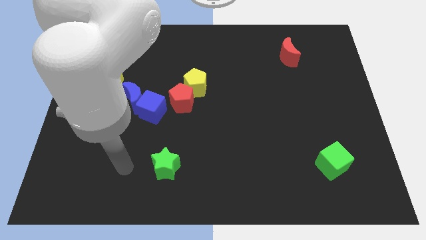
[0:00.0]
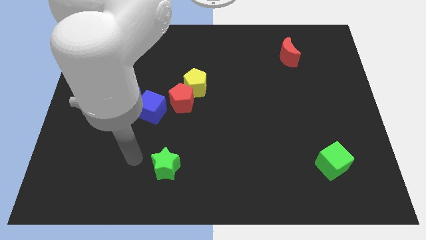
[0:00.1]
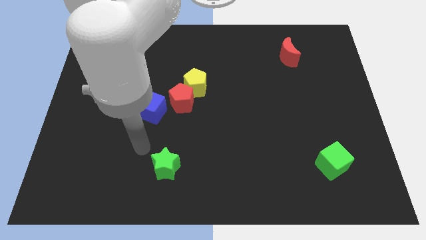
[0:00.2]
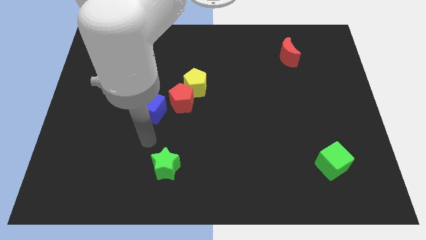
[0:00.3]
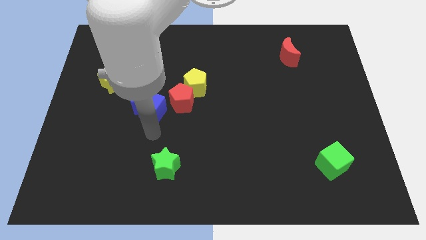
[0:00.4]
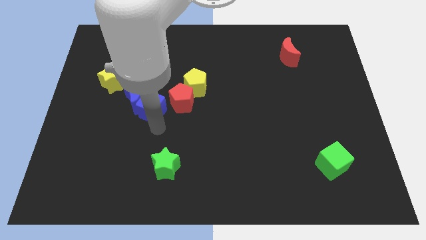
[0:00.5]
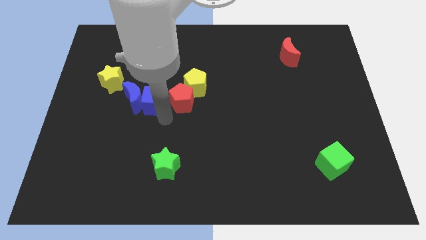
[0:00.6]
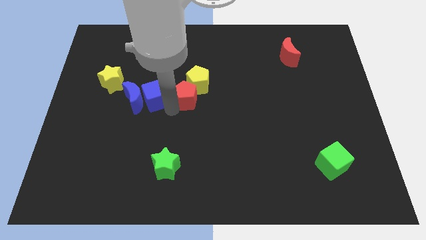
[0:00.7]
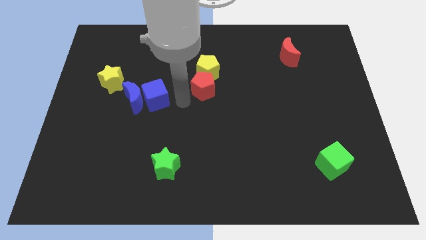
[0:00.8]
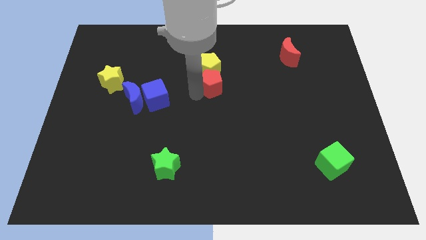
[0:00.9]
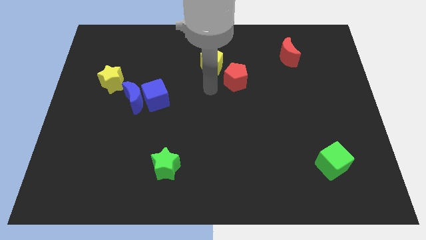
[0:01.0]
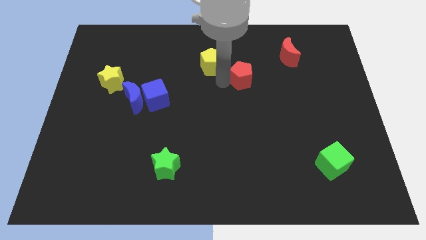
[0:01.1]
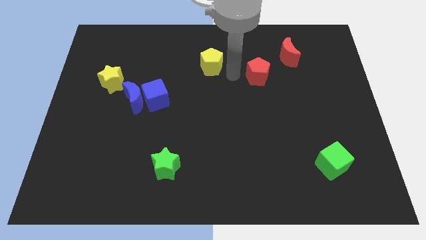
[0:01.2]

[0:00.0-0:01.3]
pull the yellow pentagon apart from the red pentagon

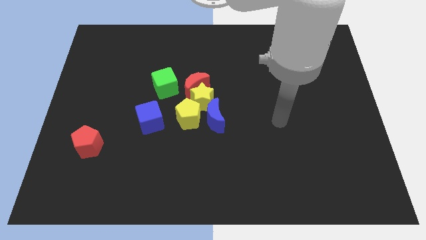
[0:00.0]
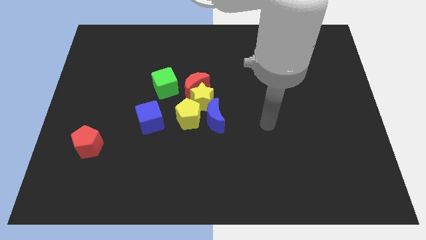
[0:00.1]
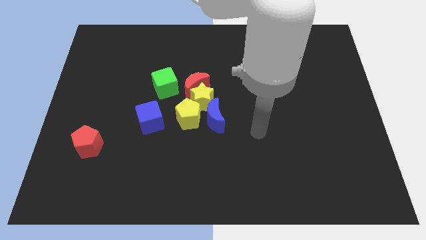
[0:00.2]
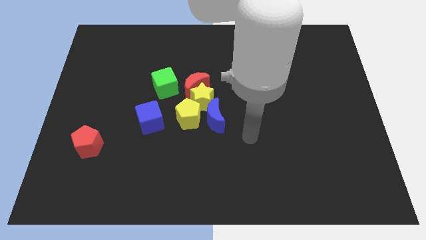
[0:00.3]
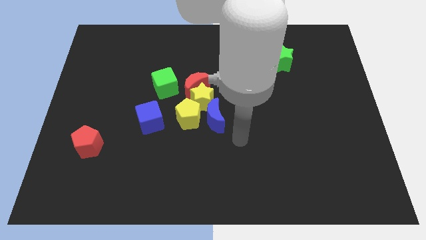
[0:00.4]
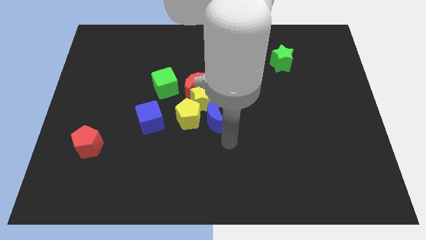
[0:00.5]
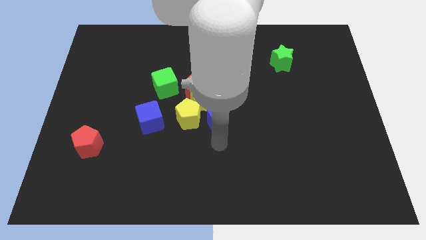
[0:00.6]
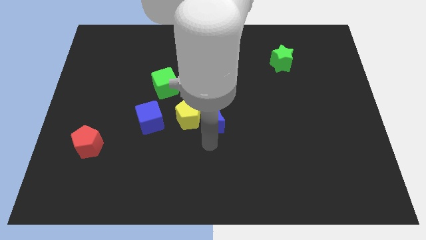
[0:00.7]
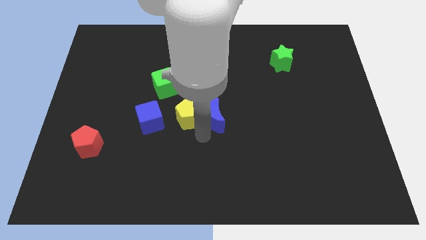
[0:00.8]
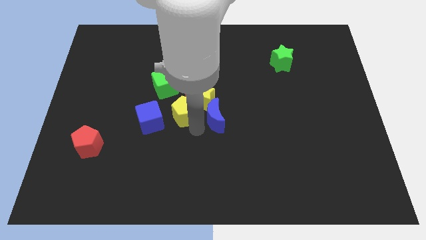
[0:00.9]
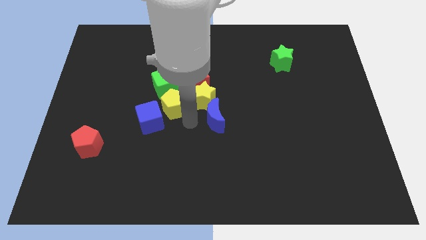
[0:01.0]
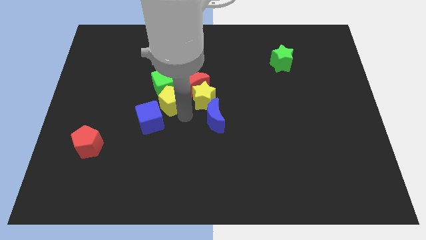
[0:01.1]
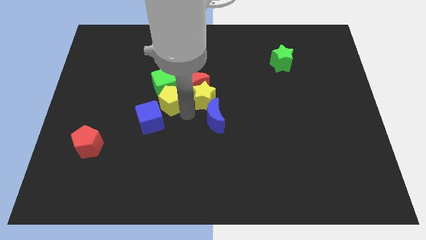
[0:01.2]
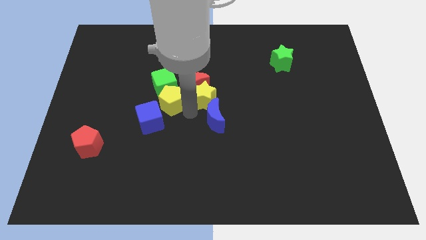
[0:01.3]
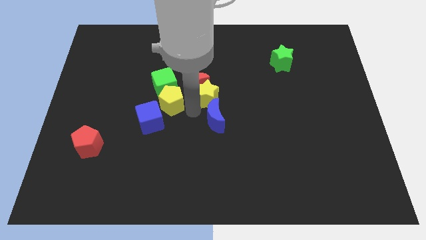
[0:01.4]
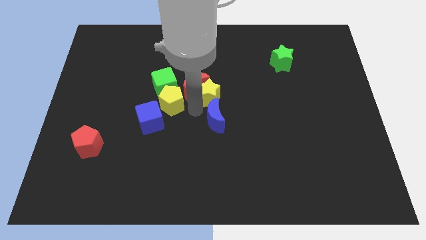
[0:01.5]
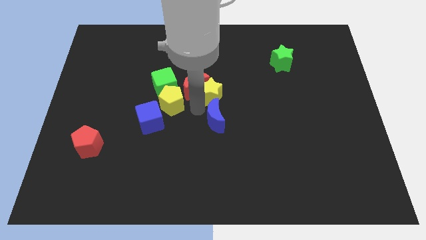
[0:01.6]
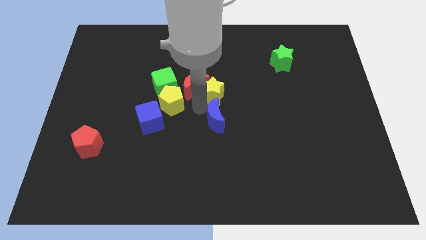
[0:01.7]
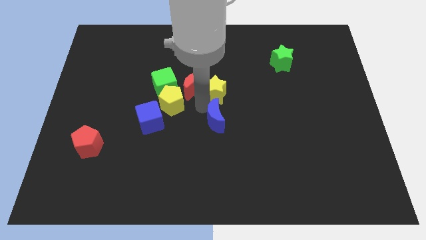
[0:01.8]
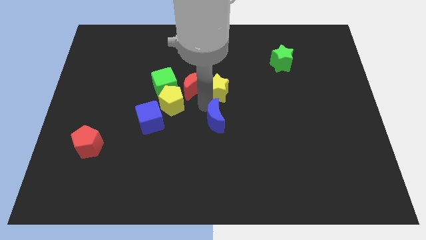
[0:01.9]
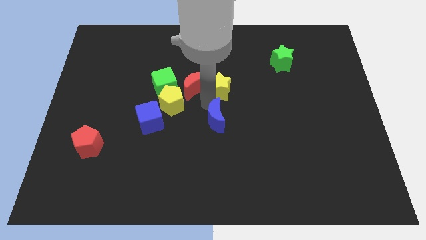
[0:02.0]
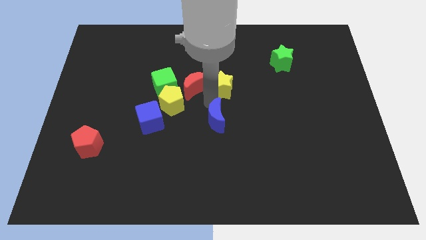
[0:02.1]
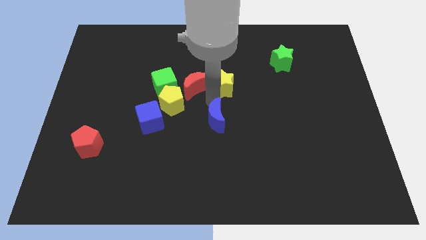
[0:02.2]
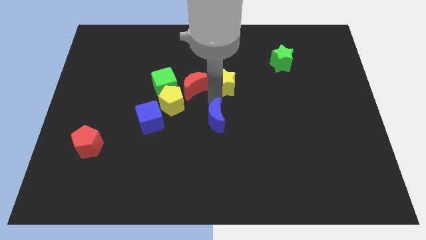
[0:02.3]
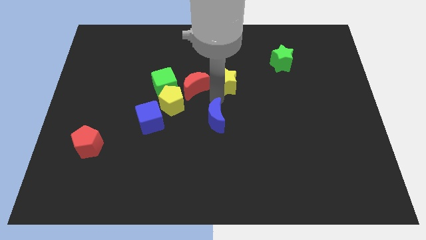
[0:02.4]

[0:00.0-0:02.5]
separate the yellow star from the red moon, blue moon, and yellow pentagon

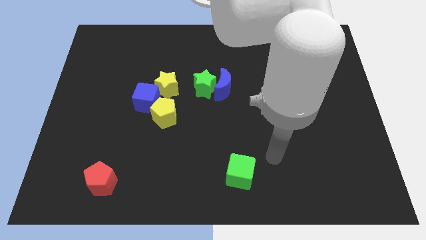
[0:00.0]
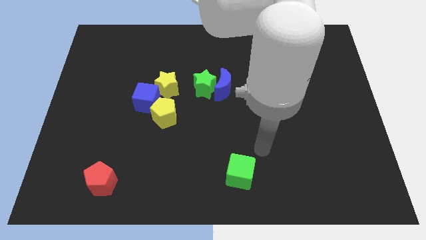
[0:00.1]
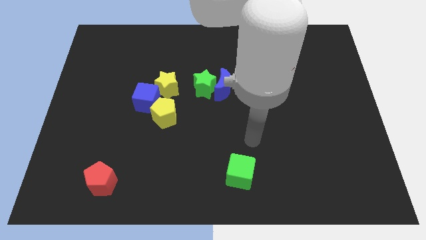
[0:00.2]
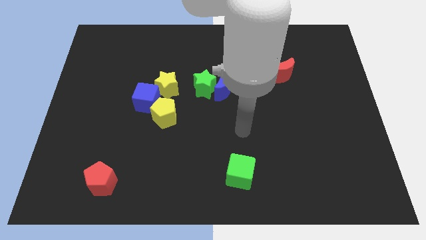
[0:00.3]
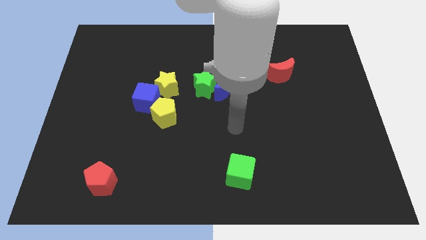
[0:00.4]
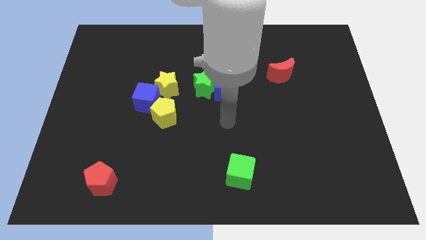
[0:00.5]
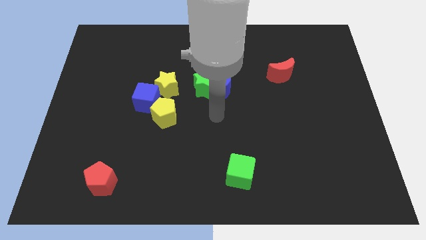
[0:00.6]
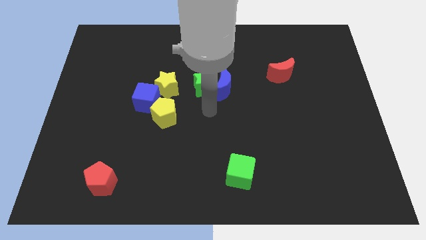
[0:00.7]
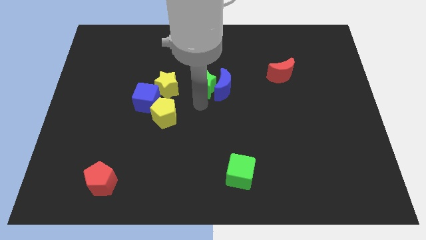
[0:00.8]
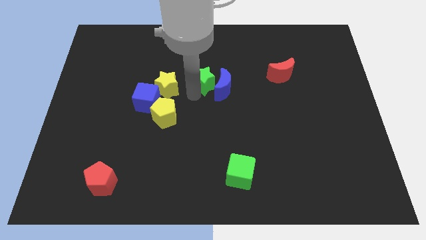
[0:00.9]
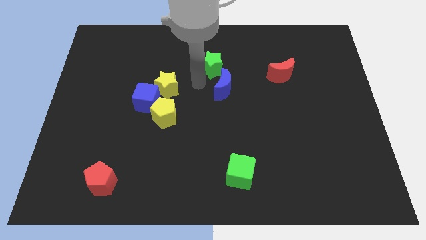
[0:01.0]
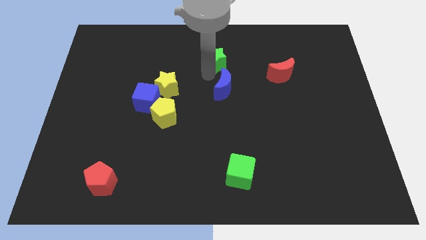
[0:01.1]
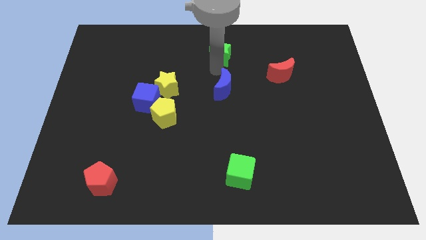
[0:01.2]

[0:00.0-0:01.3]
separate the blue moon from the green star

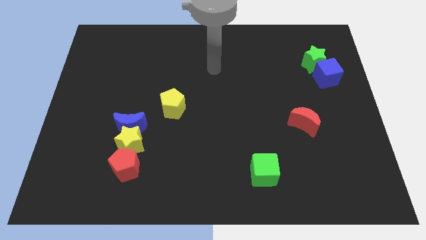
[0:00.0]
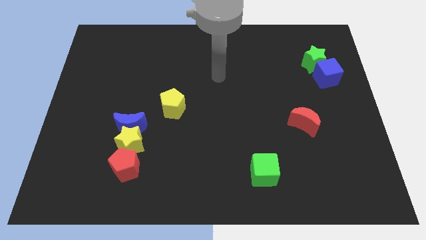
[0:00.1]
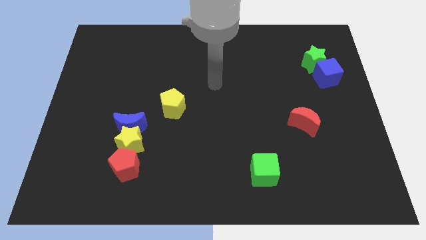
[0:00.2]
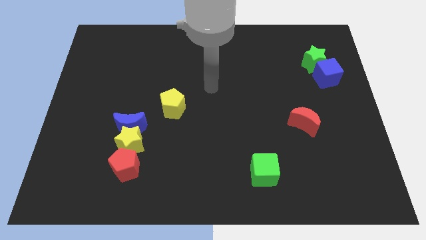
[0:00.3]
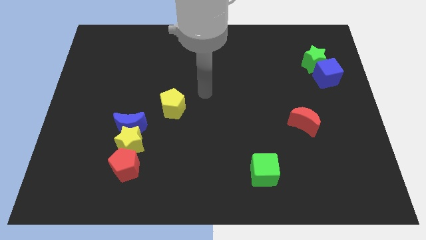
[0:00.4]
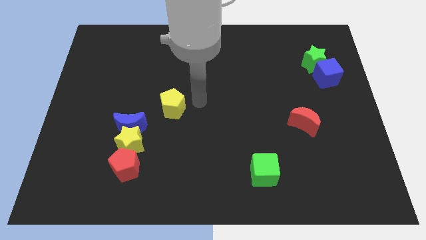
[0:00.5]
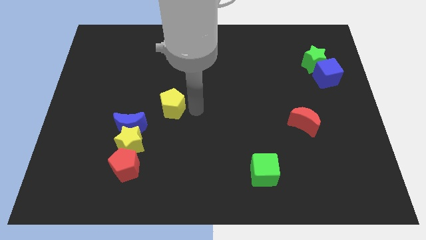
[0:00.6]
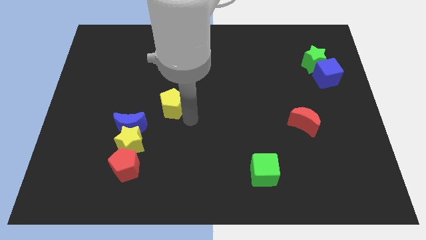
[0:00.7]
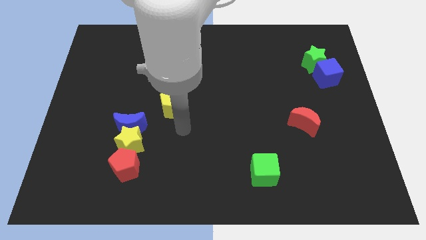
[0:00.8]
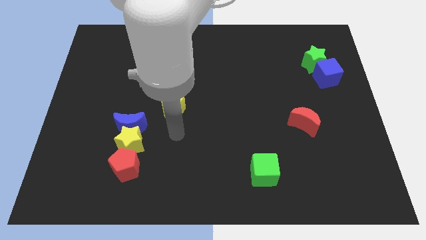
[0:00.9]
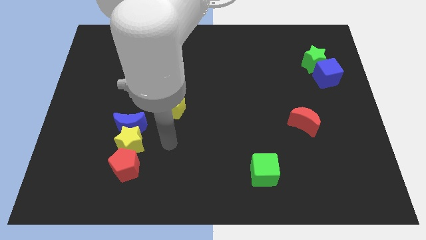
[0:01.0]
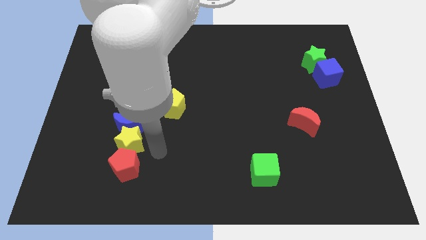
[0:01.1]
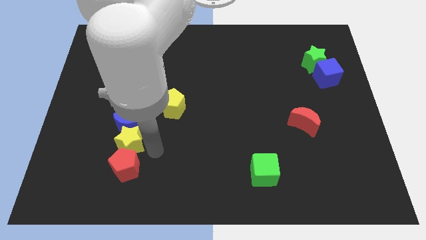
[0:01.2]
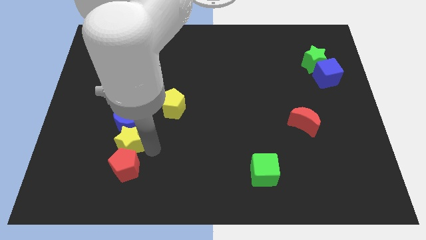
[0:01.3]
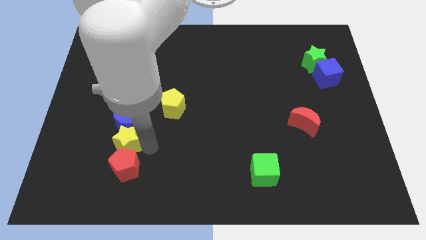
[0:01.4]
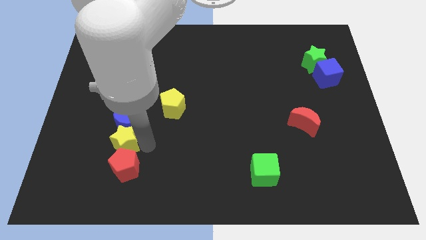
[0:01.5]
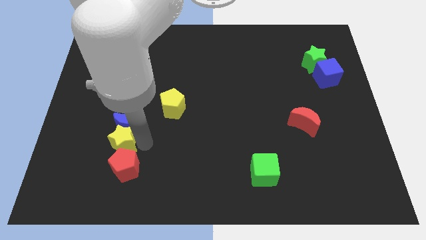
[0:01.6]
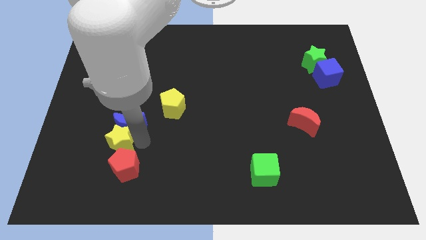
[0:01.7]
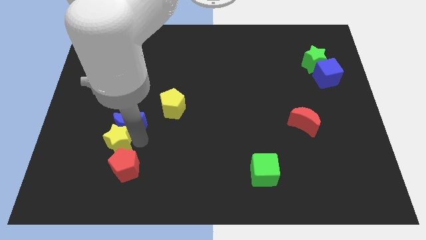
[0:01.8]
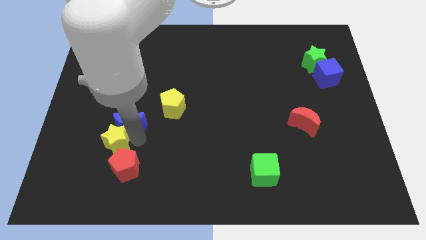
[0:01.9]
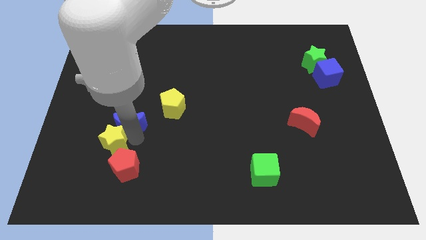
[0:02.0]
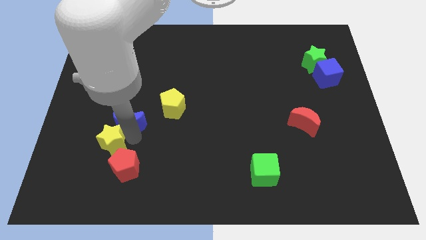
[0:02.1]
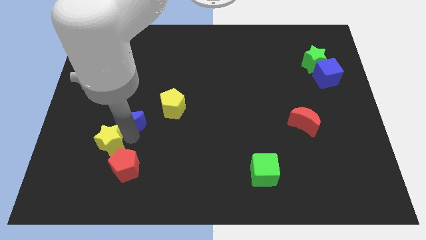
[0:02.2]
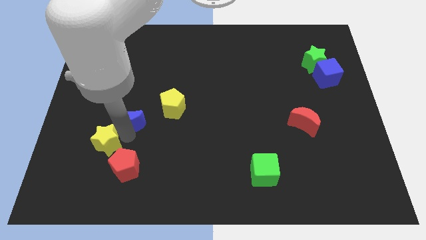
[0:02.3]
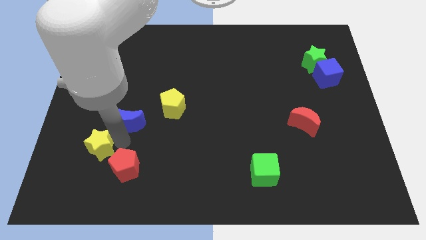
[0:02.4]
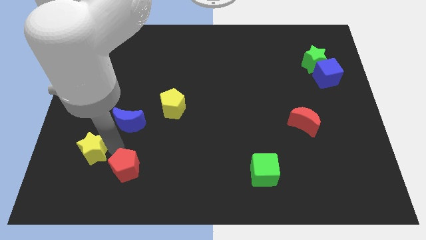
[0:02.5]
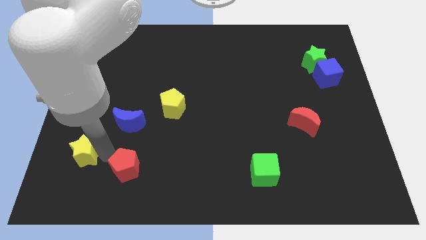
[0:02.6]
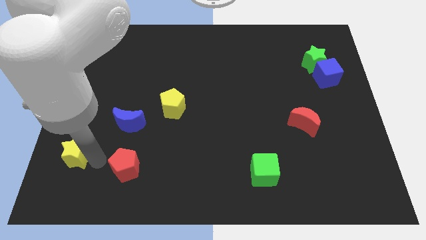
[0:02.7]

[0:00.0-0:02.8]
separate the yellow star from the blue moon and red pentagon

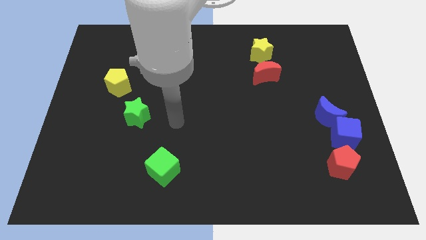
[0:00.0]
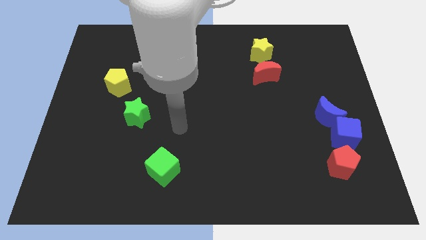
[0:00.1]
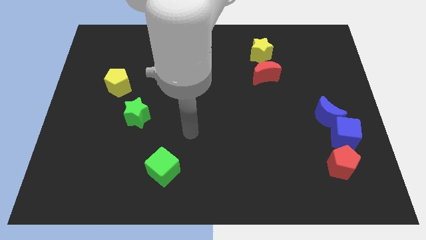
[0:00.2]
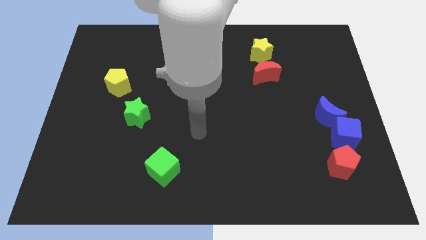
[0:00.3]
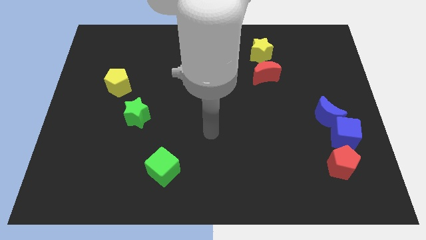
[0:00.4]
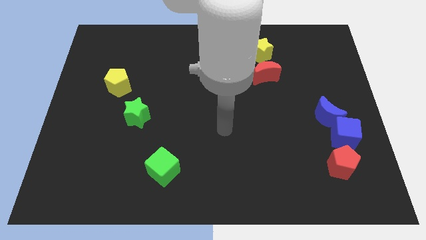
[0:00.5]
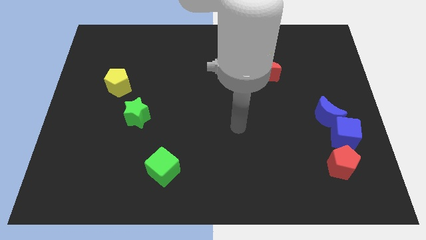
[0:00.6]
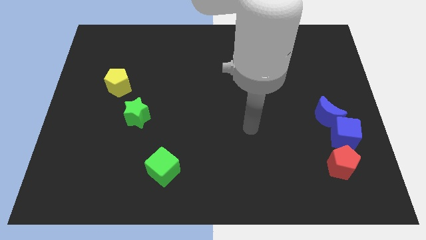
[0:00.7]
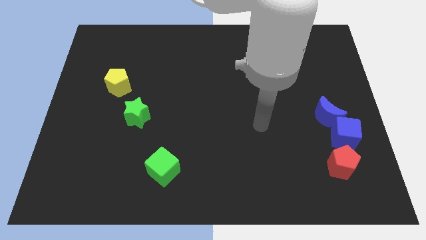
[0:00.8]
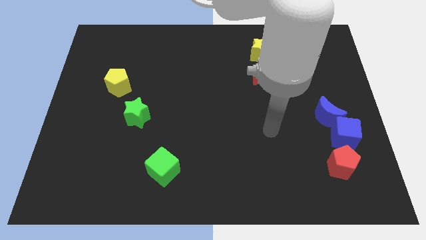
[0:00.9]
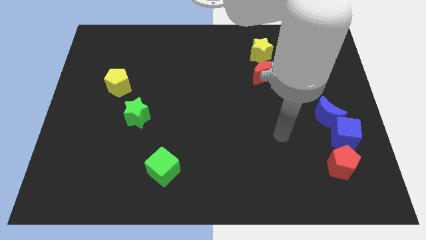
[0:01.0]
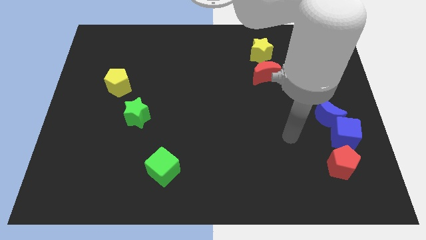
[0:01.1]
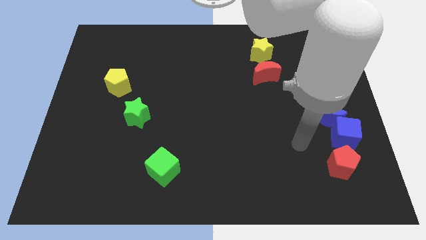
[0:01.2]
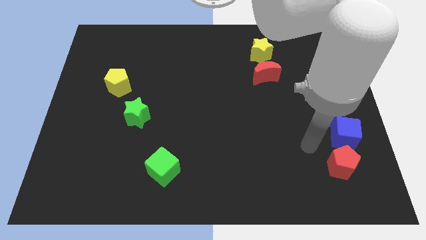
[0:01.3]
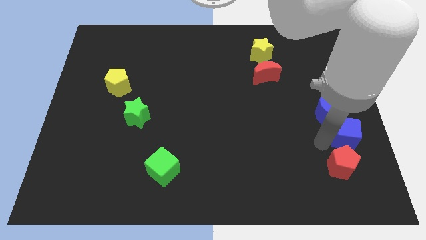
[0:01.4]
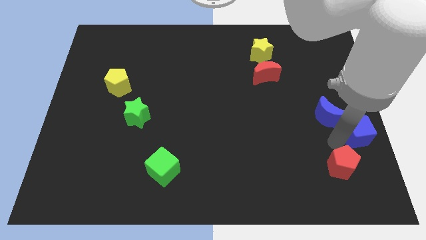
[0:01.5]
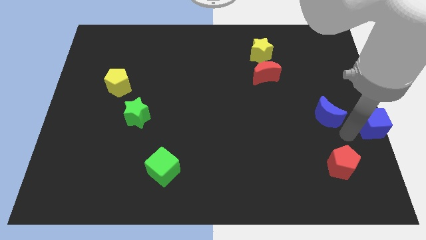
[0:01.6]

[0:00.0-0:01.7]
pull the blue moon apart from the blue cube
